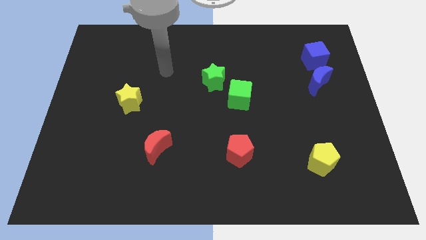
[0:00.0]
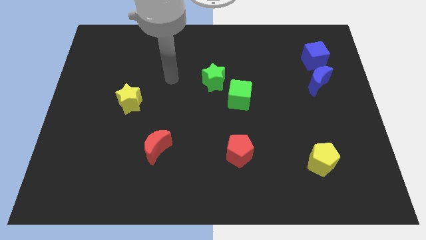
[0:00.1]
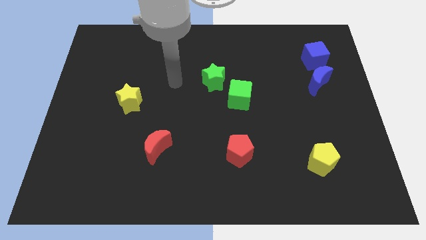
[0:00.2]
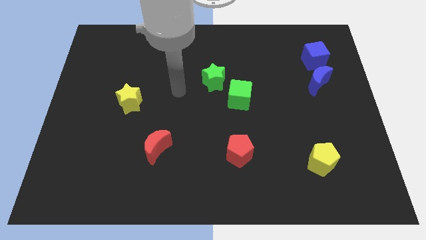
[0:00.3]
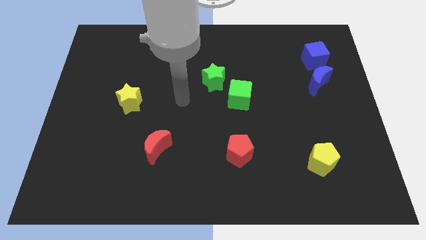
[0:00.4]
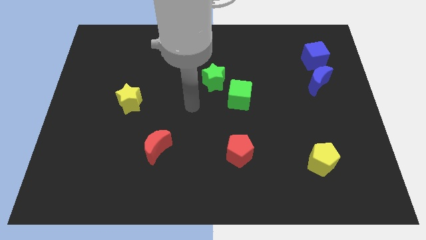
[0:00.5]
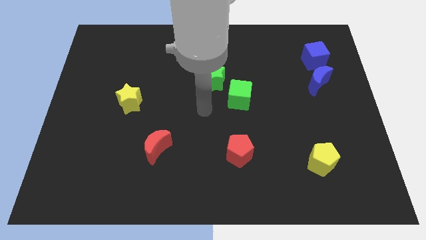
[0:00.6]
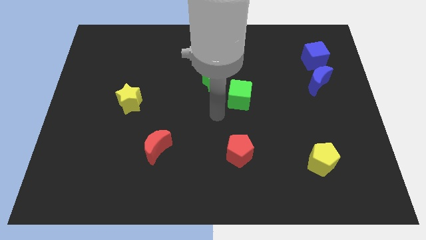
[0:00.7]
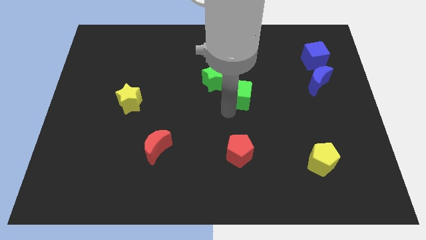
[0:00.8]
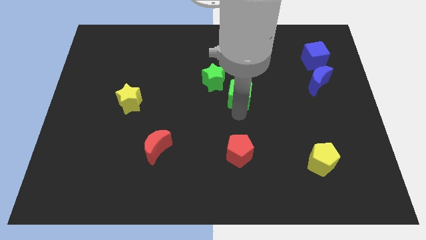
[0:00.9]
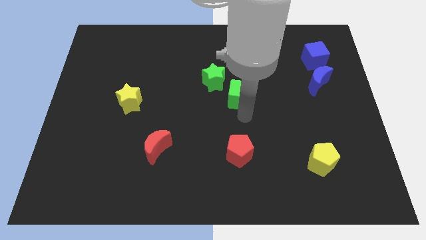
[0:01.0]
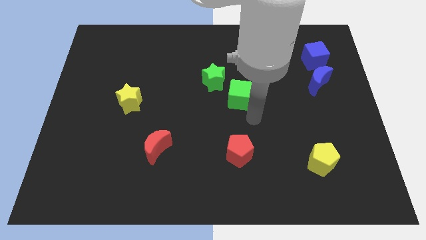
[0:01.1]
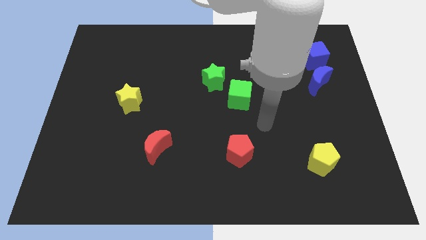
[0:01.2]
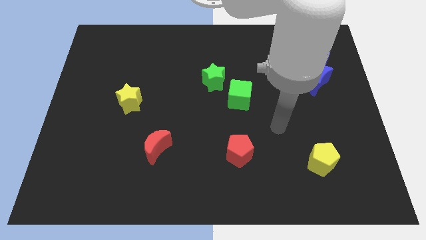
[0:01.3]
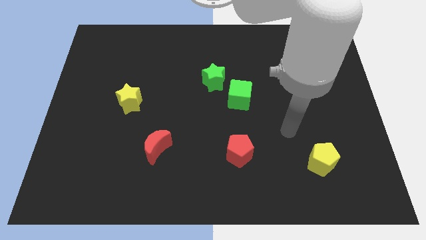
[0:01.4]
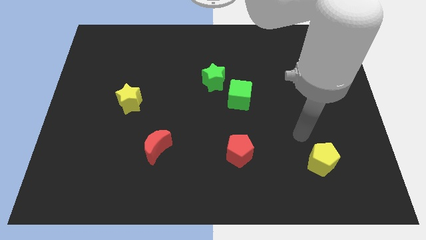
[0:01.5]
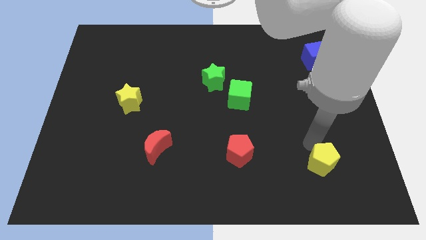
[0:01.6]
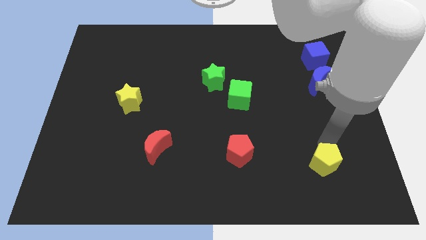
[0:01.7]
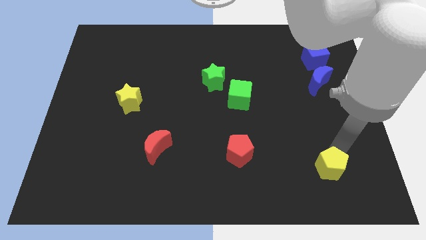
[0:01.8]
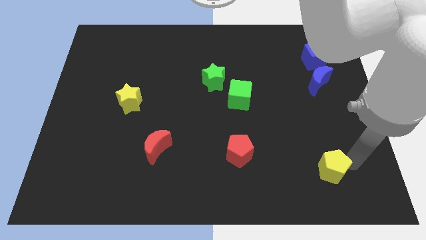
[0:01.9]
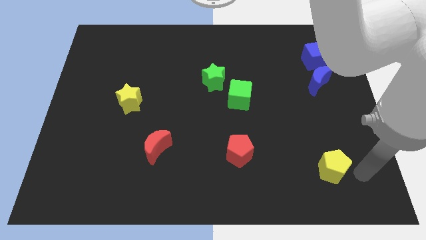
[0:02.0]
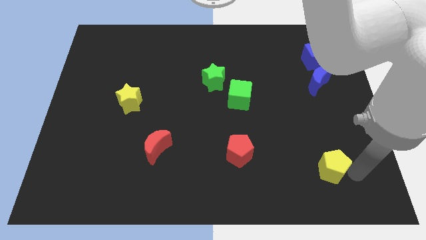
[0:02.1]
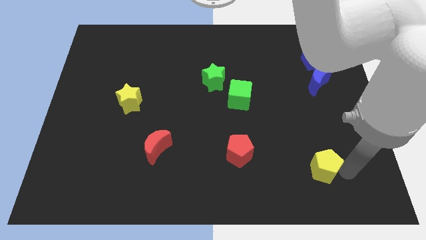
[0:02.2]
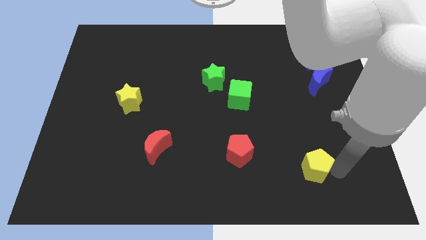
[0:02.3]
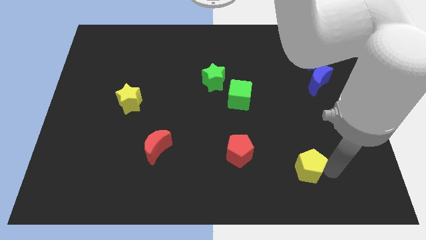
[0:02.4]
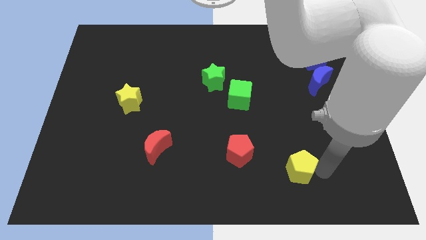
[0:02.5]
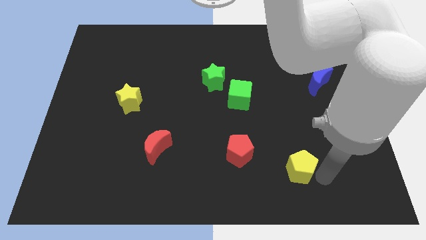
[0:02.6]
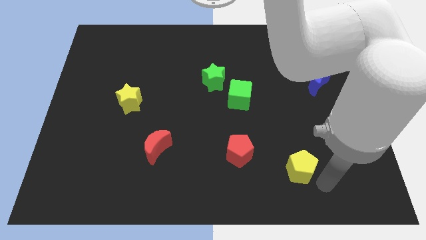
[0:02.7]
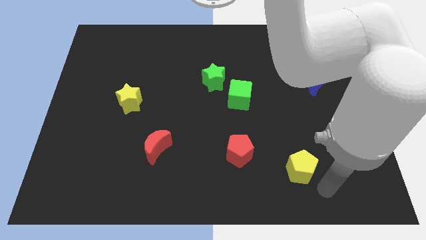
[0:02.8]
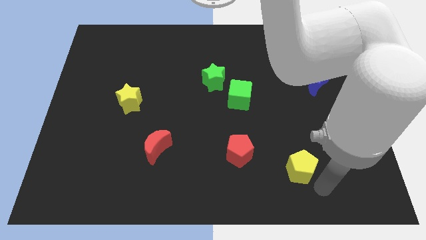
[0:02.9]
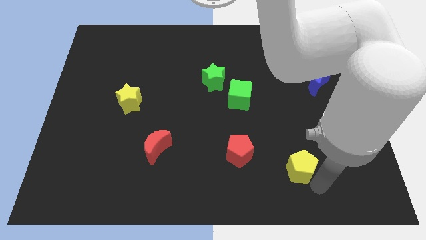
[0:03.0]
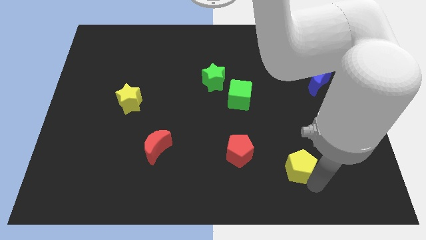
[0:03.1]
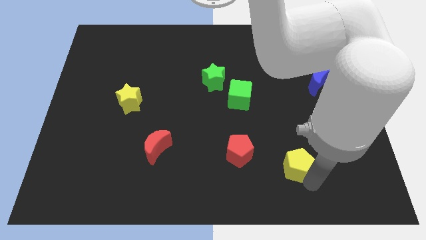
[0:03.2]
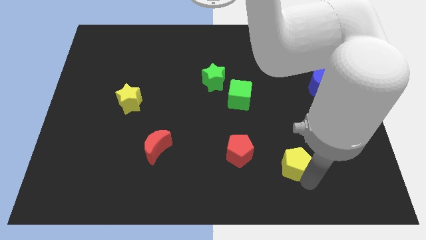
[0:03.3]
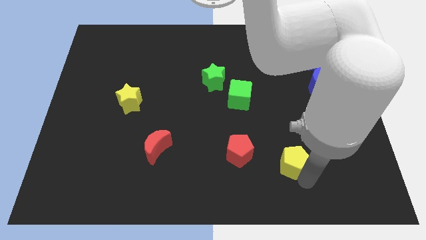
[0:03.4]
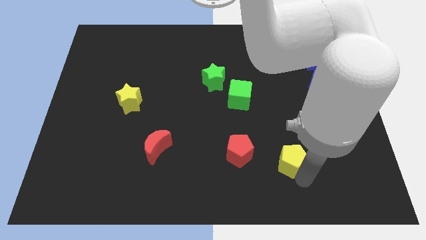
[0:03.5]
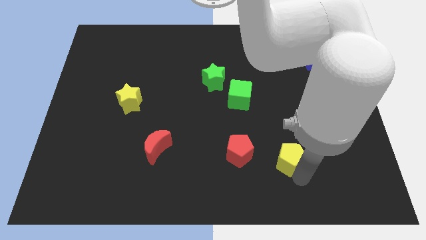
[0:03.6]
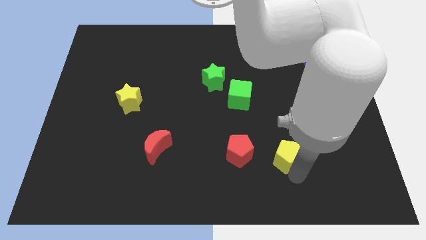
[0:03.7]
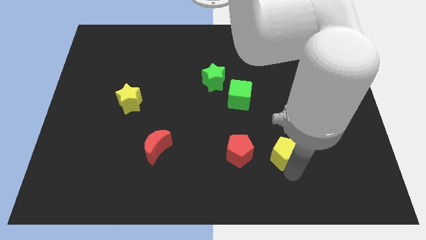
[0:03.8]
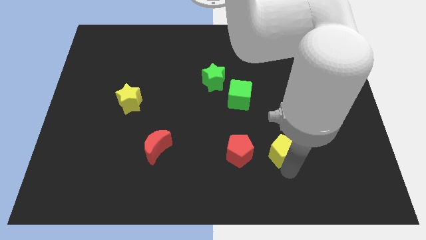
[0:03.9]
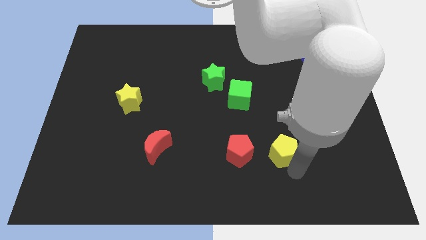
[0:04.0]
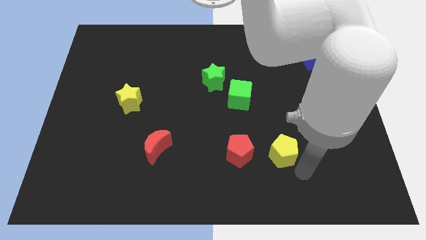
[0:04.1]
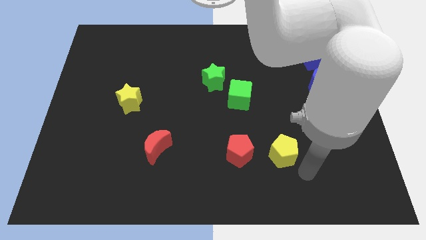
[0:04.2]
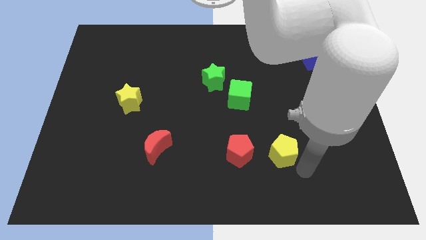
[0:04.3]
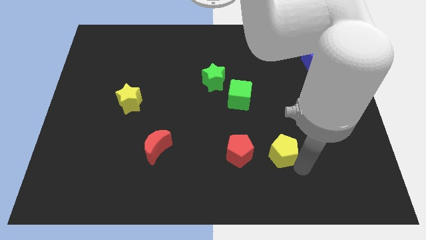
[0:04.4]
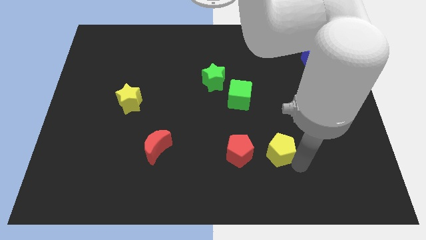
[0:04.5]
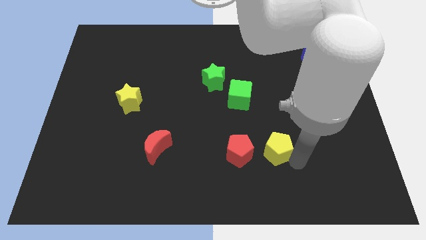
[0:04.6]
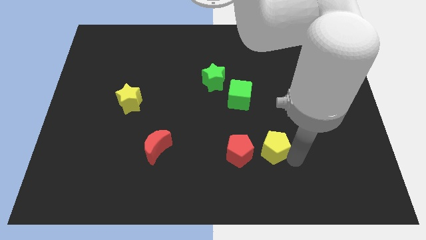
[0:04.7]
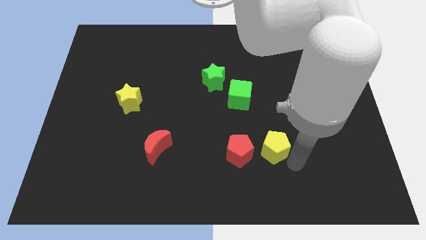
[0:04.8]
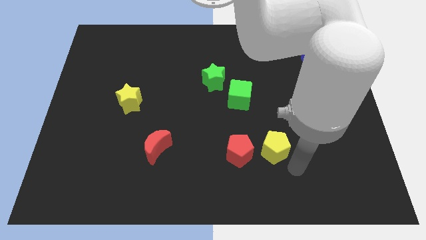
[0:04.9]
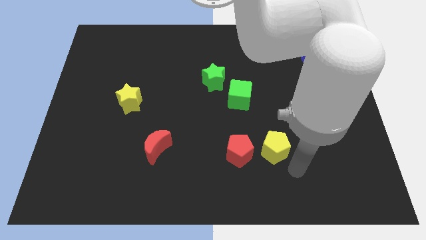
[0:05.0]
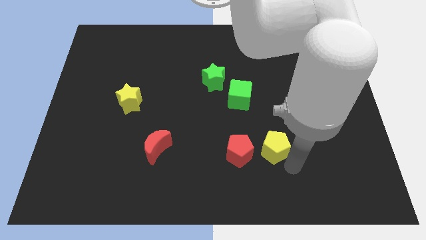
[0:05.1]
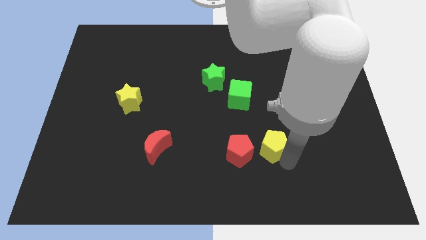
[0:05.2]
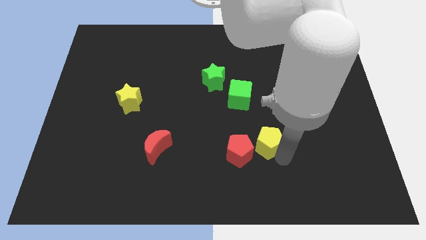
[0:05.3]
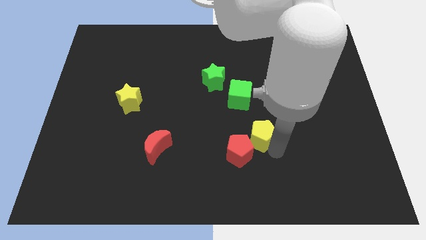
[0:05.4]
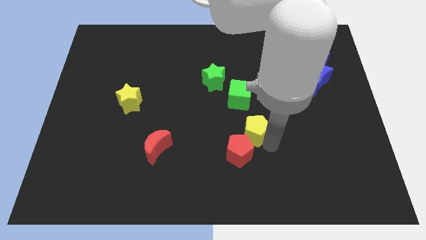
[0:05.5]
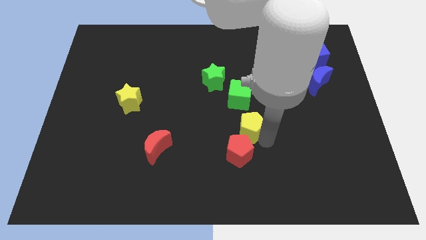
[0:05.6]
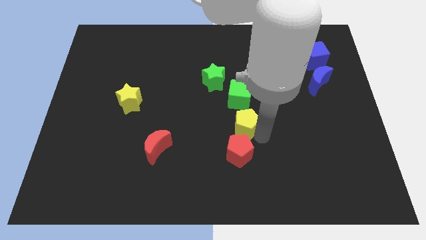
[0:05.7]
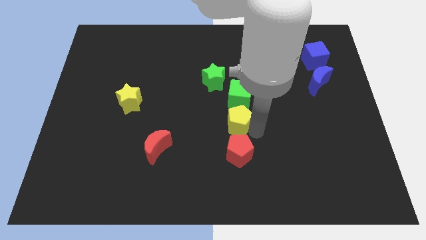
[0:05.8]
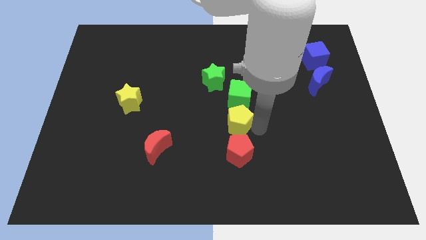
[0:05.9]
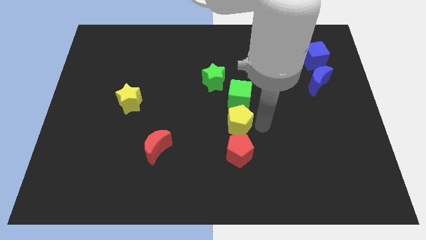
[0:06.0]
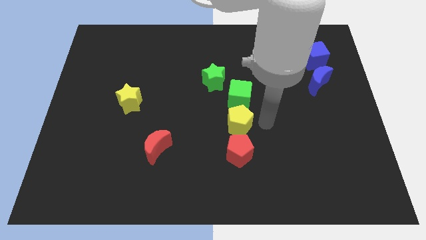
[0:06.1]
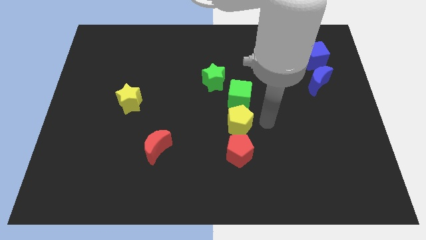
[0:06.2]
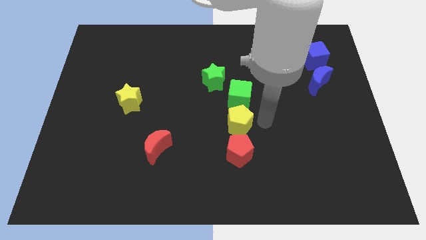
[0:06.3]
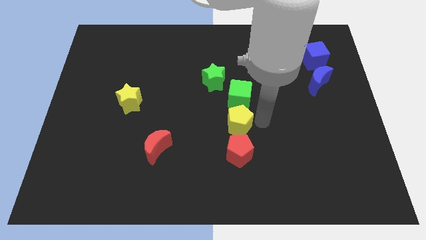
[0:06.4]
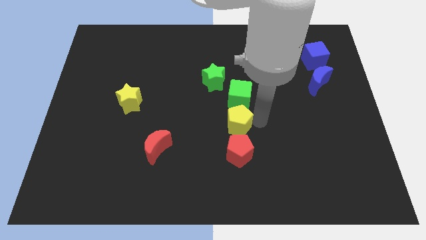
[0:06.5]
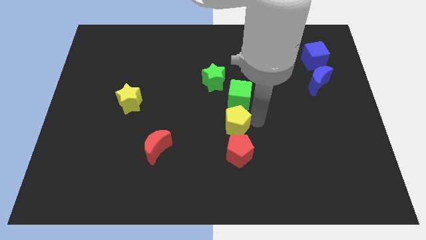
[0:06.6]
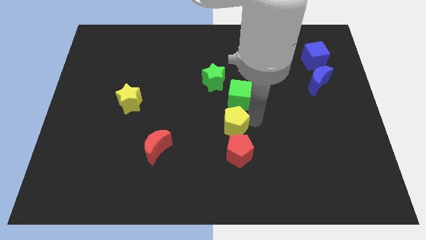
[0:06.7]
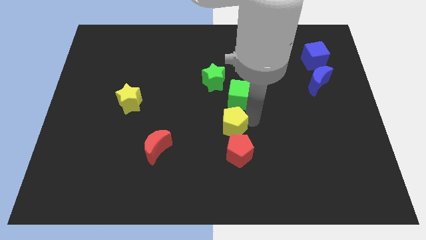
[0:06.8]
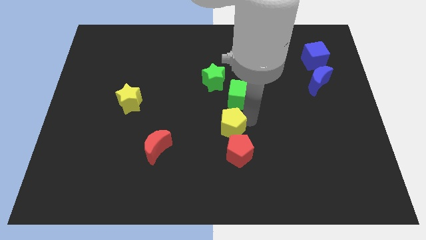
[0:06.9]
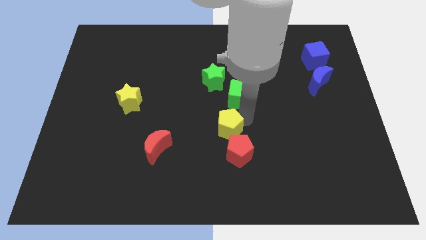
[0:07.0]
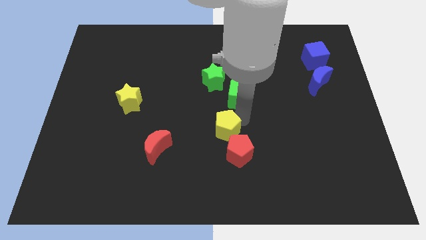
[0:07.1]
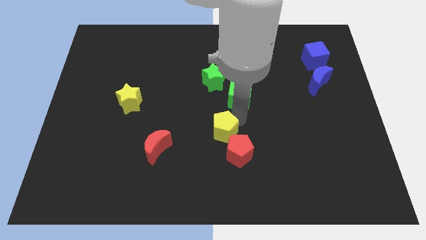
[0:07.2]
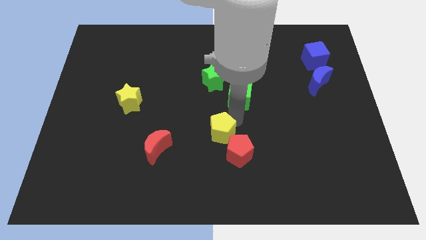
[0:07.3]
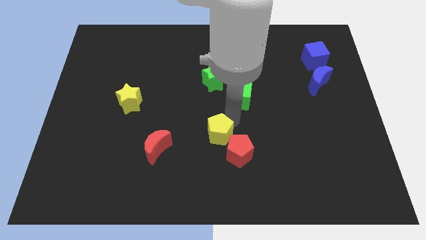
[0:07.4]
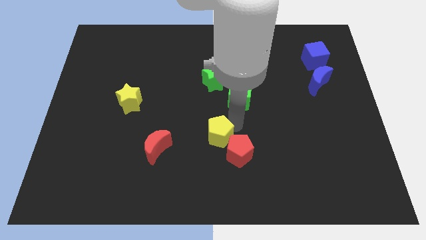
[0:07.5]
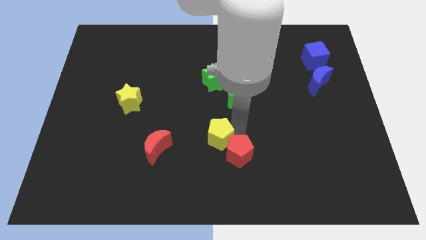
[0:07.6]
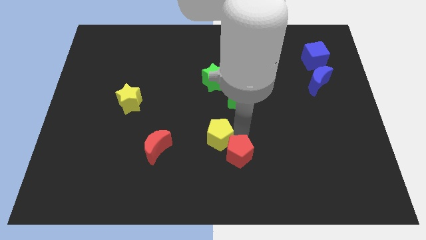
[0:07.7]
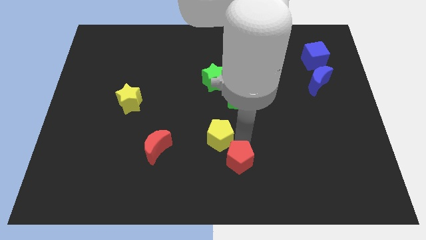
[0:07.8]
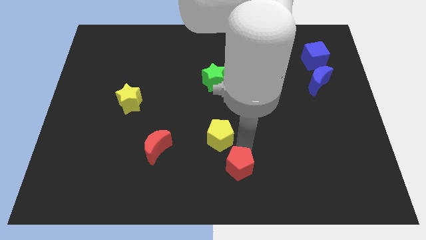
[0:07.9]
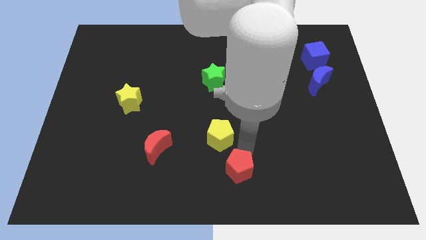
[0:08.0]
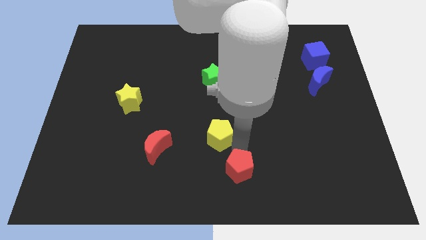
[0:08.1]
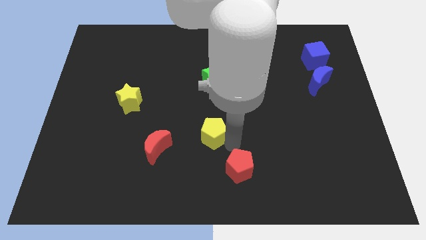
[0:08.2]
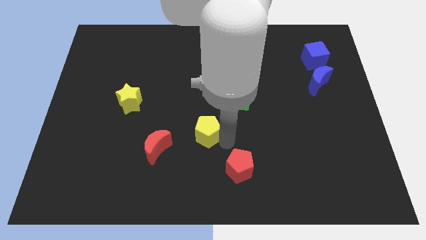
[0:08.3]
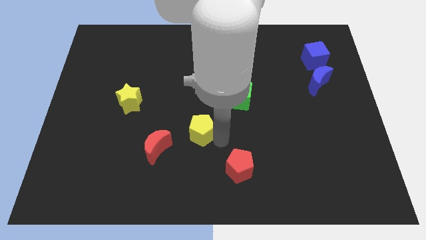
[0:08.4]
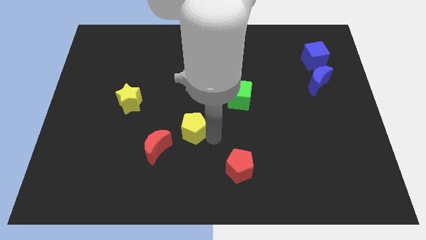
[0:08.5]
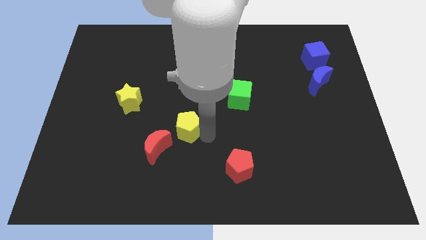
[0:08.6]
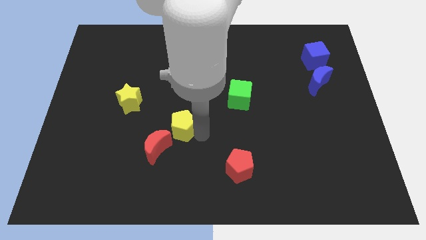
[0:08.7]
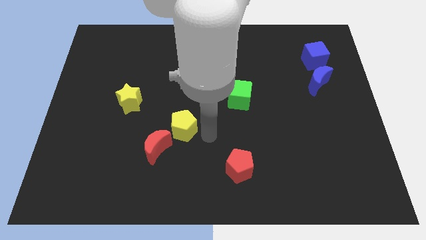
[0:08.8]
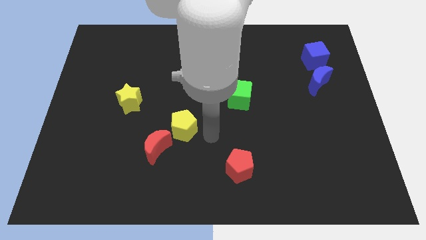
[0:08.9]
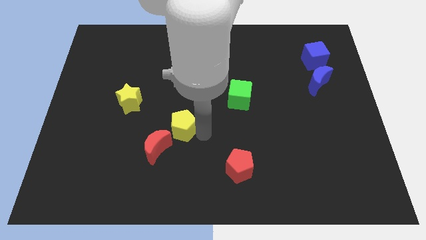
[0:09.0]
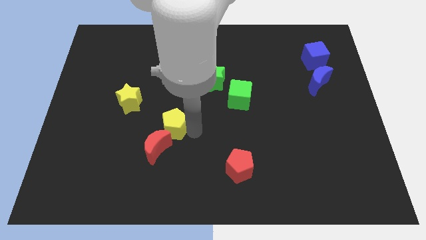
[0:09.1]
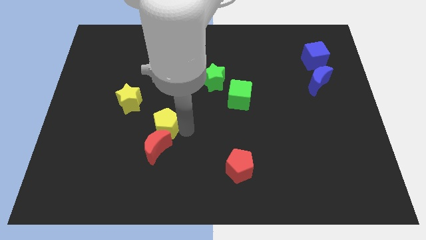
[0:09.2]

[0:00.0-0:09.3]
push the yellow pentagon to the bottom right side of the yellow star
